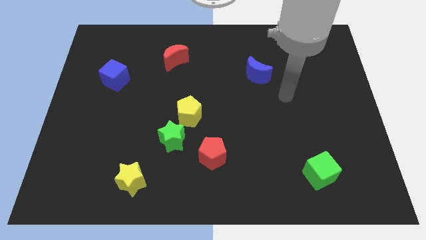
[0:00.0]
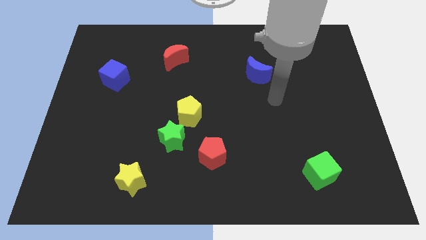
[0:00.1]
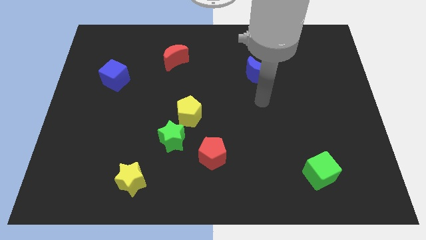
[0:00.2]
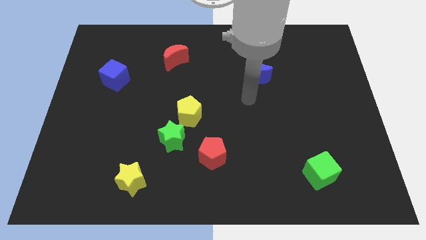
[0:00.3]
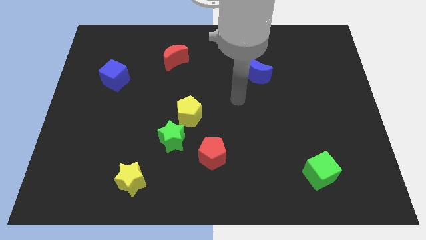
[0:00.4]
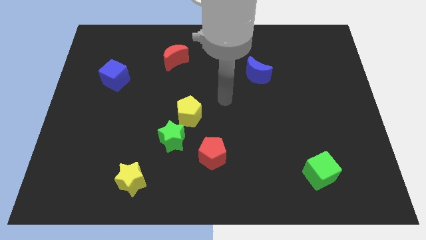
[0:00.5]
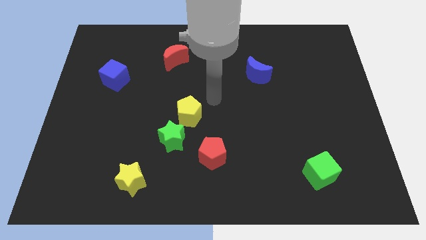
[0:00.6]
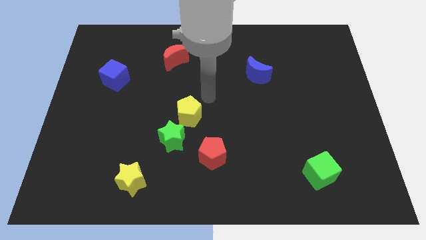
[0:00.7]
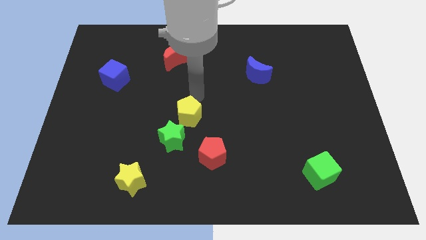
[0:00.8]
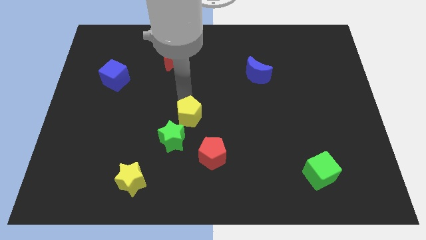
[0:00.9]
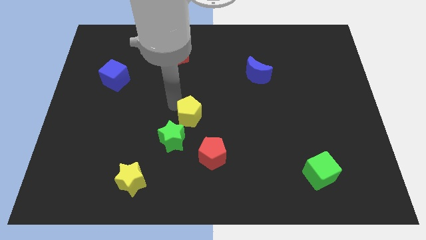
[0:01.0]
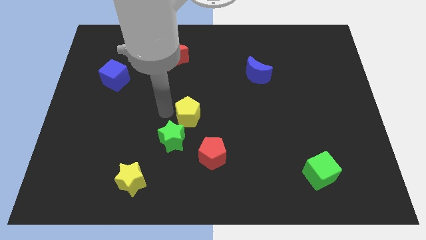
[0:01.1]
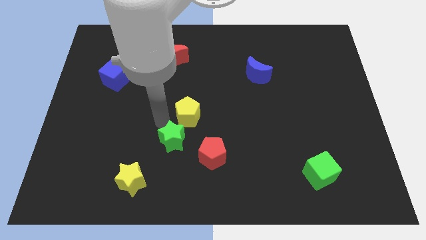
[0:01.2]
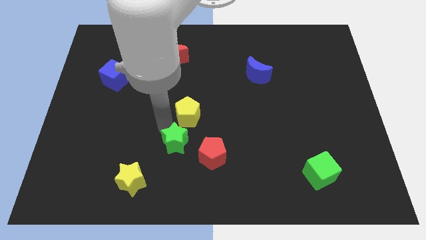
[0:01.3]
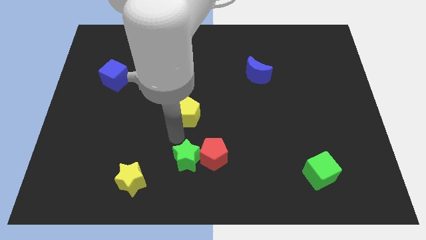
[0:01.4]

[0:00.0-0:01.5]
move the yellow pentagon away from the green star

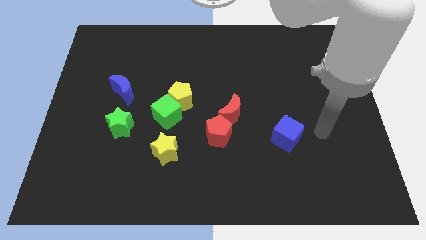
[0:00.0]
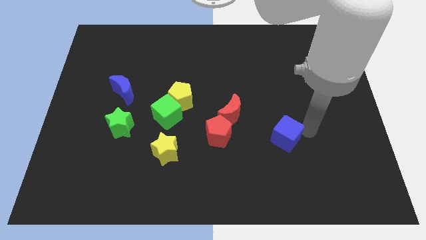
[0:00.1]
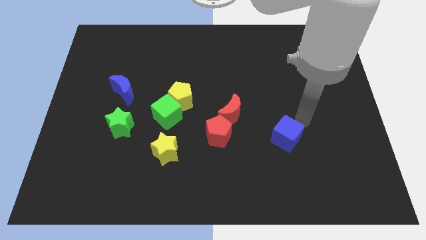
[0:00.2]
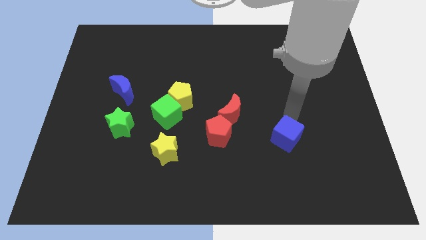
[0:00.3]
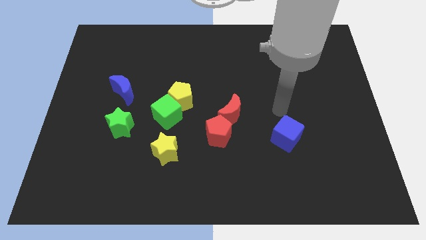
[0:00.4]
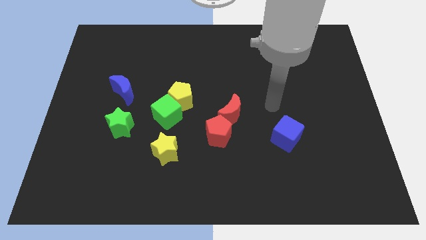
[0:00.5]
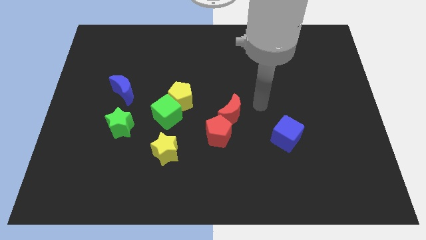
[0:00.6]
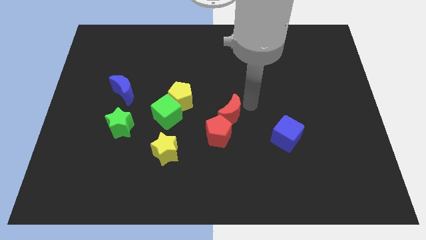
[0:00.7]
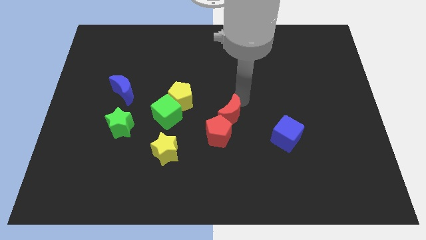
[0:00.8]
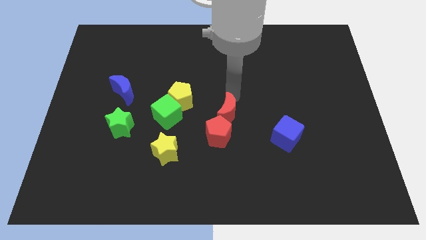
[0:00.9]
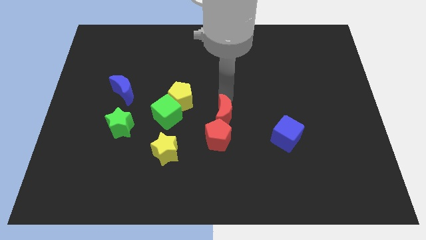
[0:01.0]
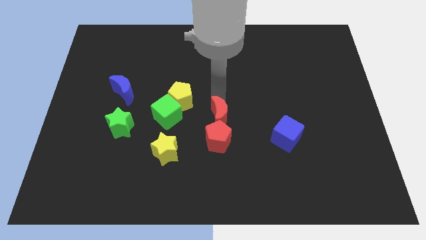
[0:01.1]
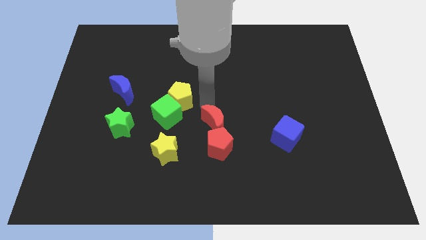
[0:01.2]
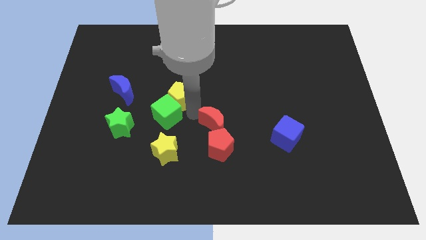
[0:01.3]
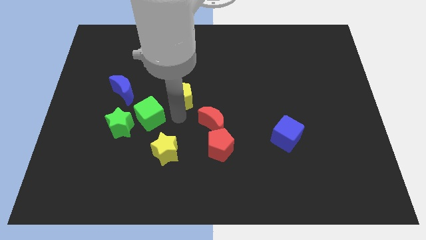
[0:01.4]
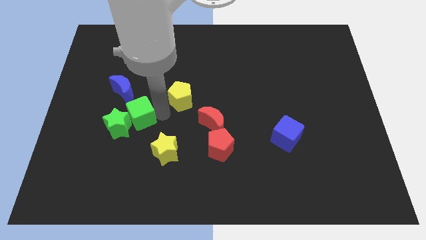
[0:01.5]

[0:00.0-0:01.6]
move the yellow pentagon away from the green cube

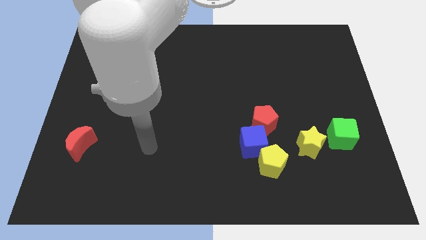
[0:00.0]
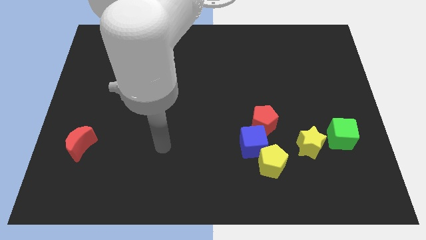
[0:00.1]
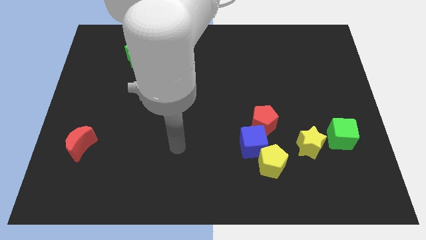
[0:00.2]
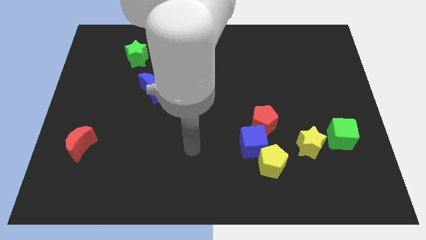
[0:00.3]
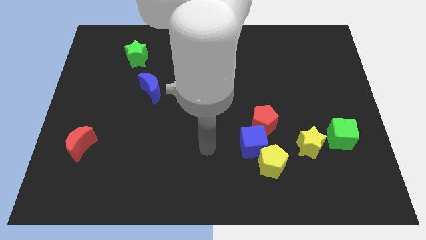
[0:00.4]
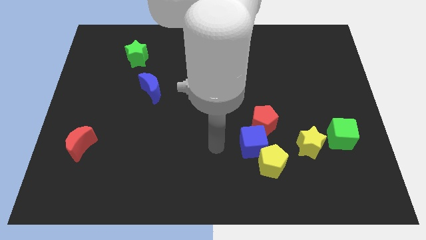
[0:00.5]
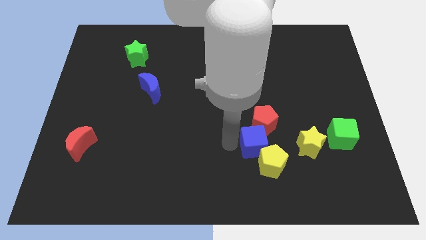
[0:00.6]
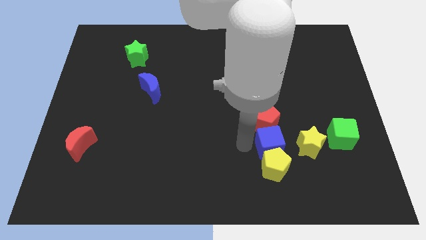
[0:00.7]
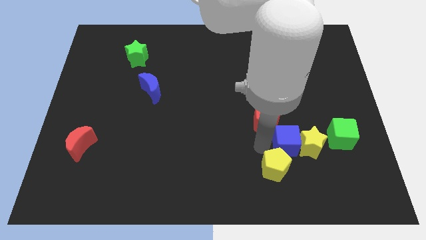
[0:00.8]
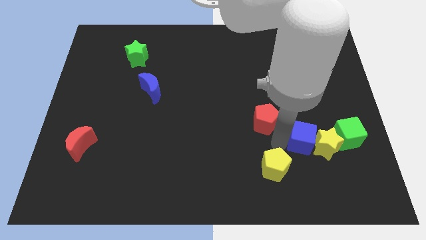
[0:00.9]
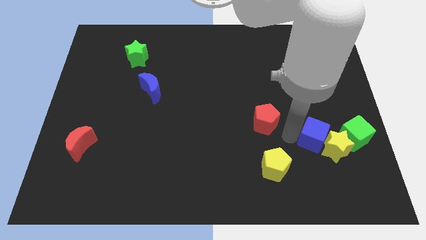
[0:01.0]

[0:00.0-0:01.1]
pull the red pentagon apart from the blue cube

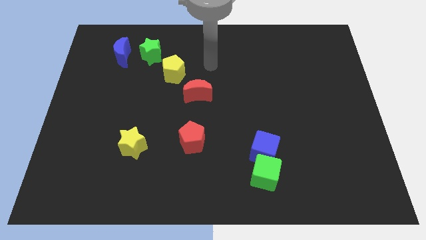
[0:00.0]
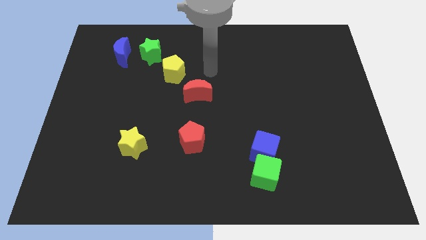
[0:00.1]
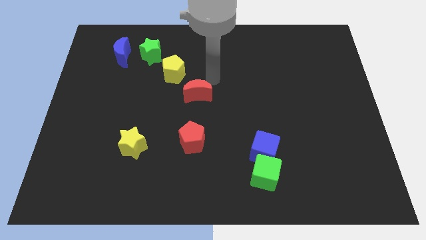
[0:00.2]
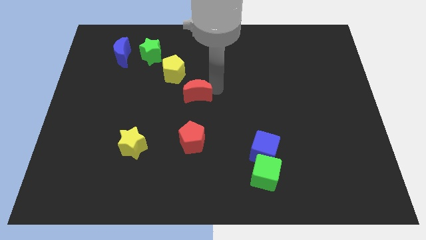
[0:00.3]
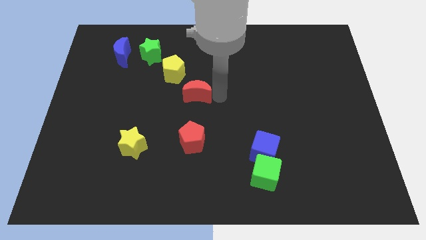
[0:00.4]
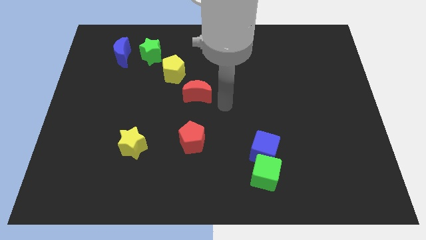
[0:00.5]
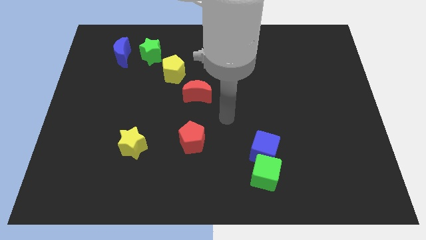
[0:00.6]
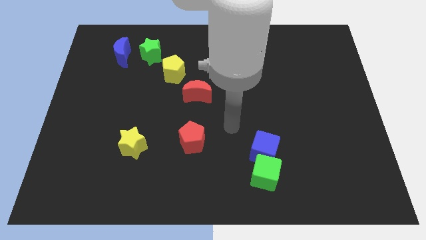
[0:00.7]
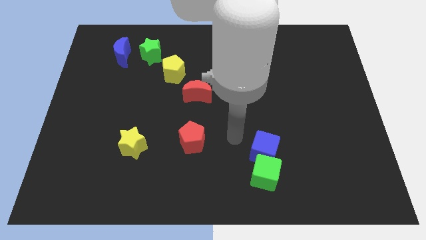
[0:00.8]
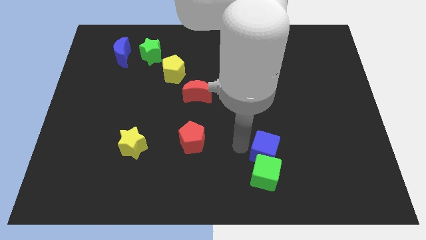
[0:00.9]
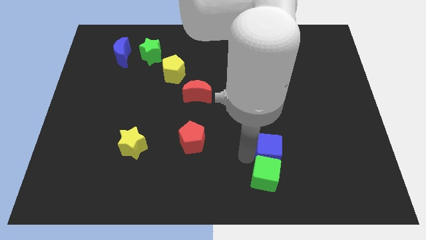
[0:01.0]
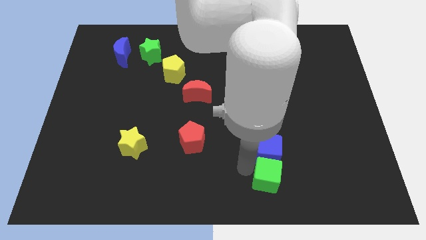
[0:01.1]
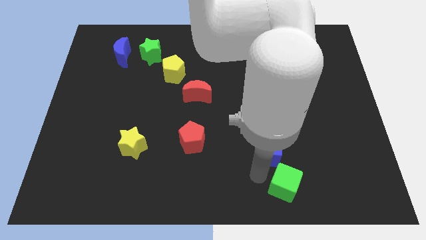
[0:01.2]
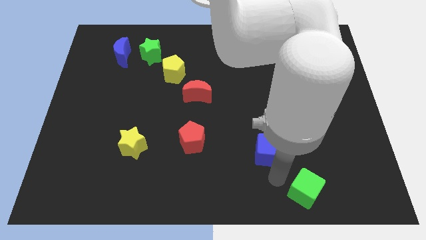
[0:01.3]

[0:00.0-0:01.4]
move the blue cube away from the green cube

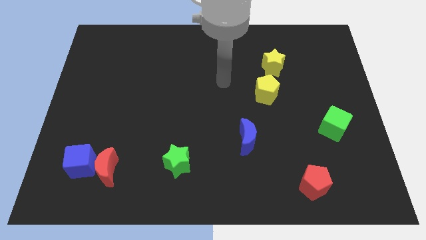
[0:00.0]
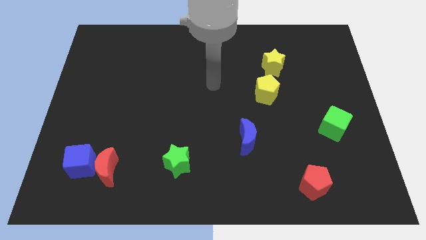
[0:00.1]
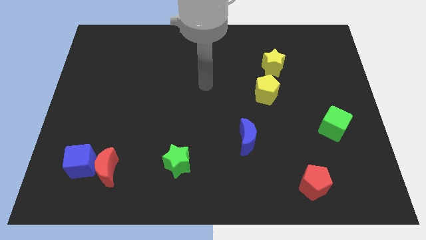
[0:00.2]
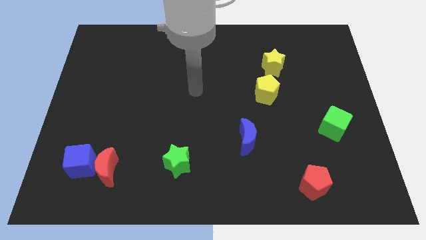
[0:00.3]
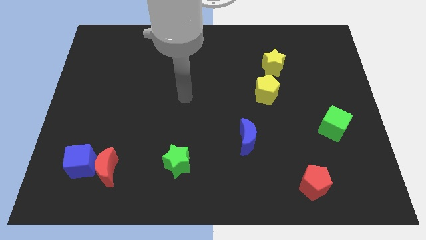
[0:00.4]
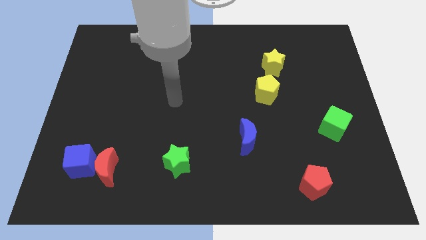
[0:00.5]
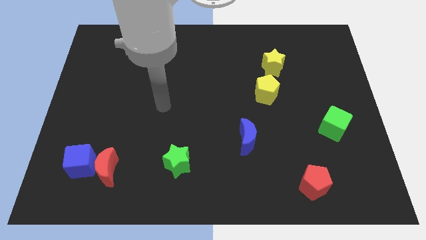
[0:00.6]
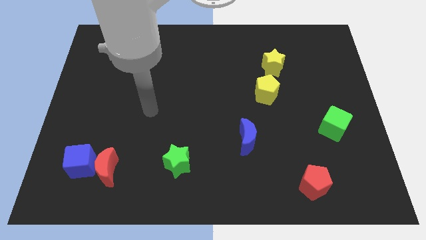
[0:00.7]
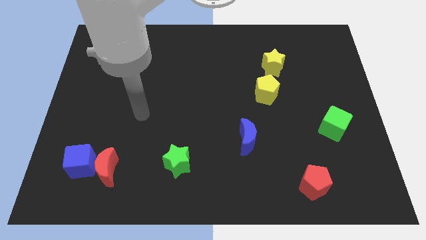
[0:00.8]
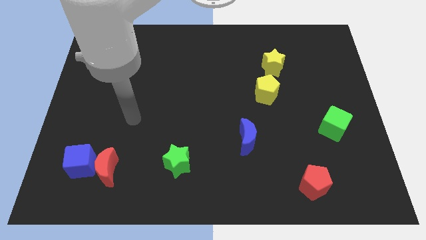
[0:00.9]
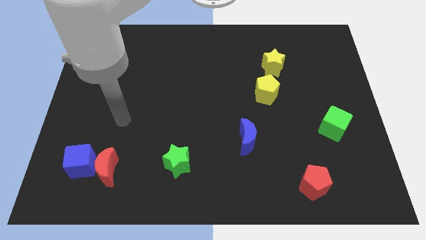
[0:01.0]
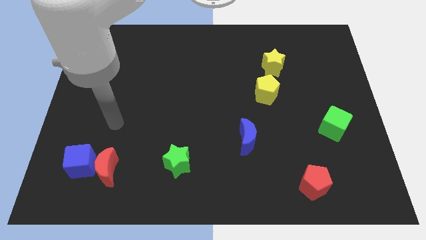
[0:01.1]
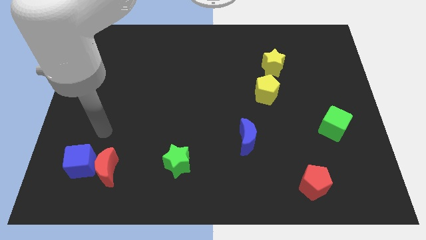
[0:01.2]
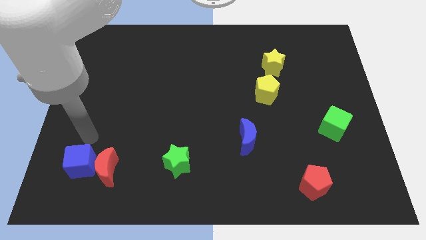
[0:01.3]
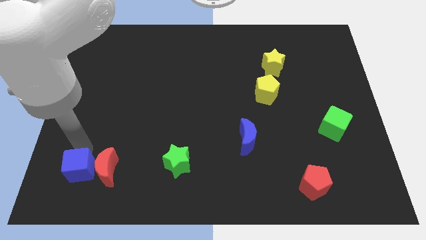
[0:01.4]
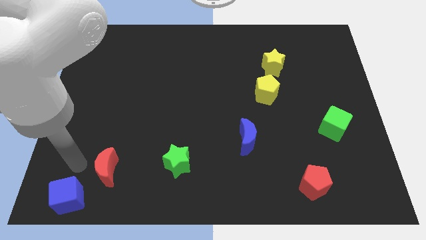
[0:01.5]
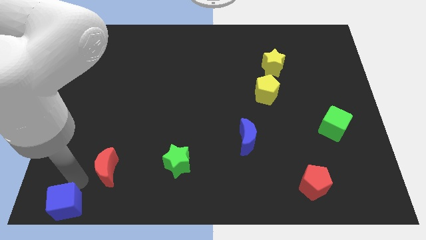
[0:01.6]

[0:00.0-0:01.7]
move the red moon away from the blue cube

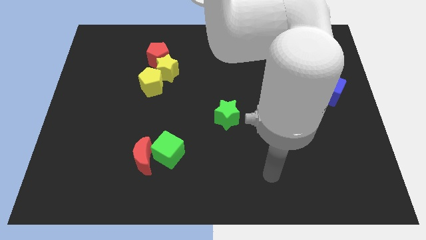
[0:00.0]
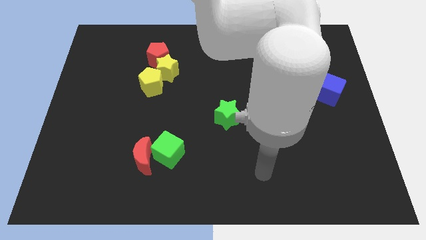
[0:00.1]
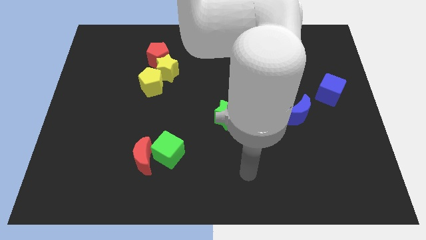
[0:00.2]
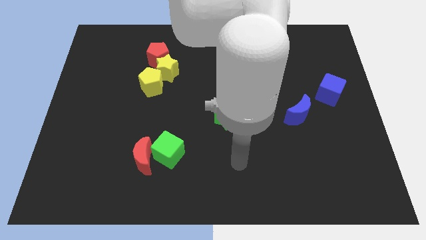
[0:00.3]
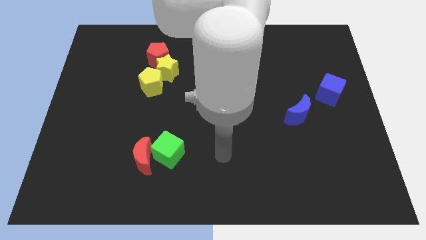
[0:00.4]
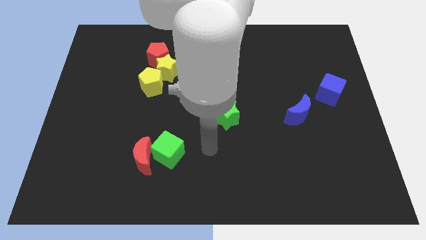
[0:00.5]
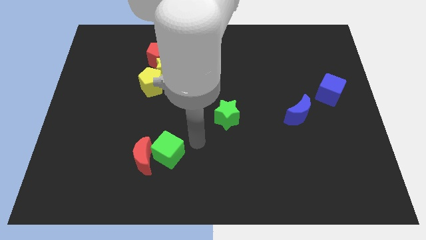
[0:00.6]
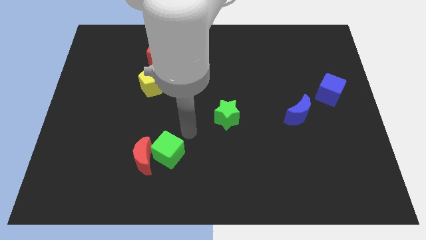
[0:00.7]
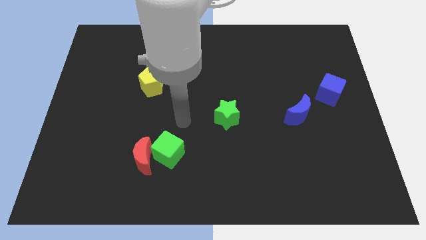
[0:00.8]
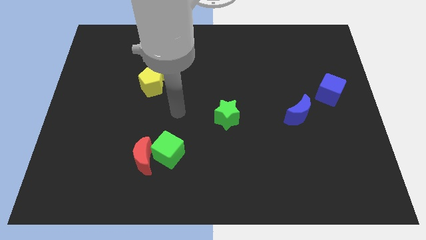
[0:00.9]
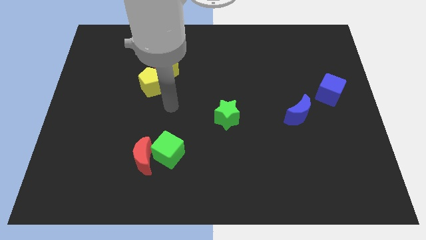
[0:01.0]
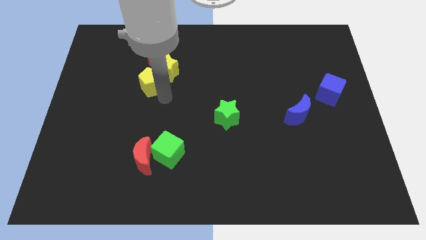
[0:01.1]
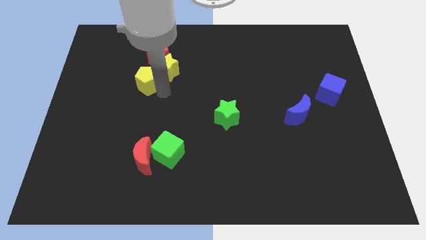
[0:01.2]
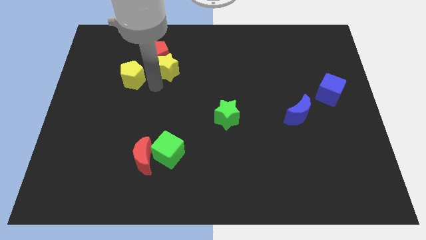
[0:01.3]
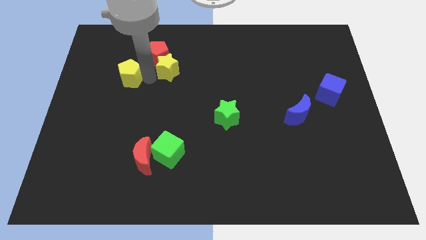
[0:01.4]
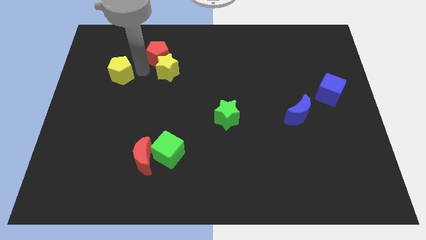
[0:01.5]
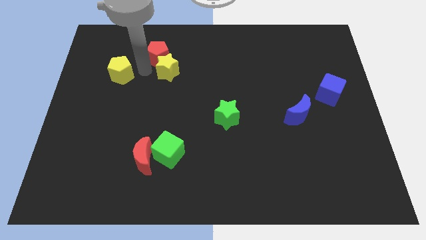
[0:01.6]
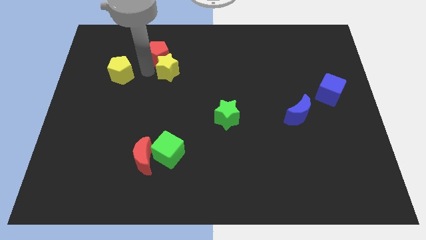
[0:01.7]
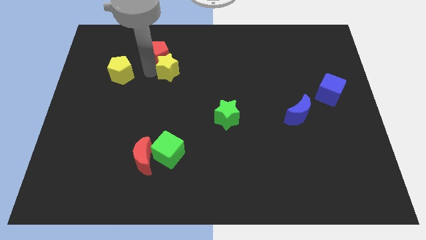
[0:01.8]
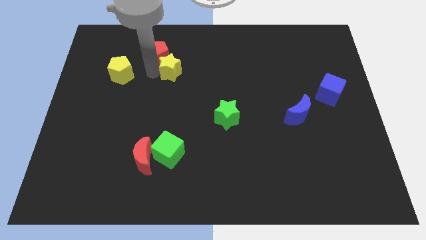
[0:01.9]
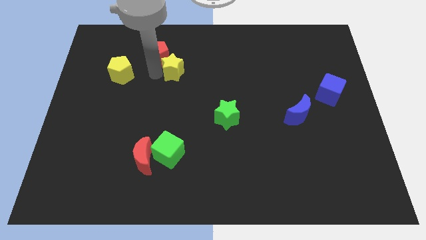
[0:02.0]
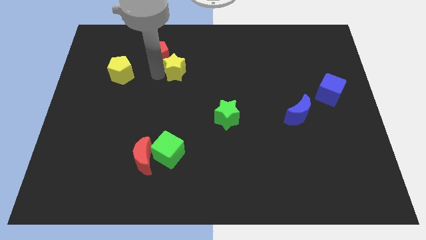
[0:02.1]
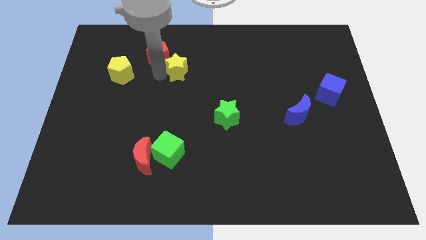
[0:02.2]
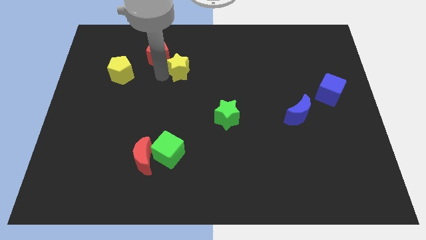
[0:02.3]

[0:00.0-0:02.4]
move the yellow star away from the red pentagon and yellow pentagon
